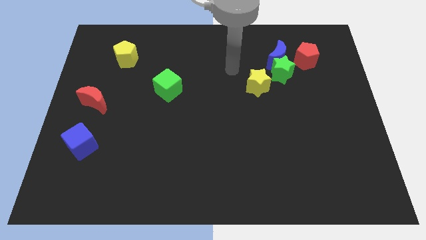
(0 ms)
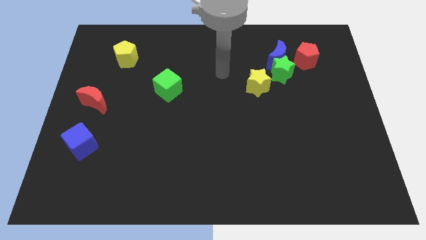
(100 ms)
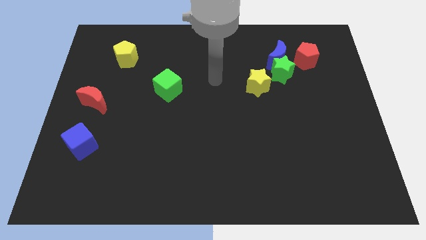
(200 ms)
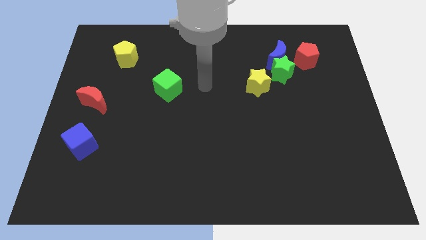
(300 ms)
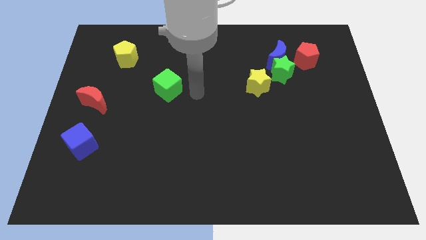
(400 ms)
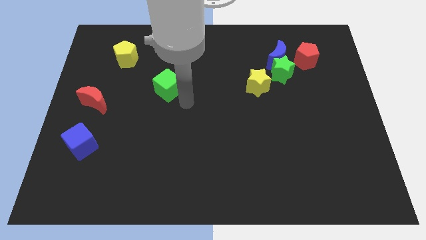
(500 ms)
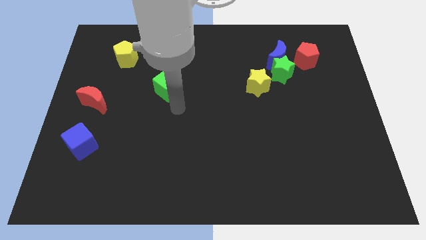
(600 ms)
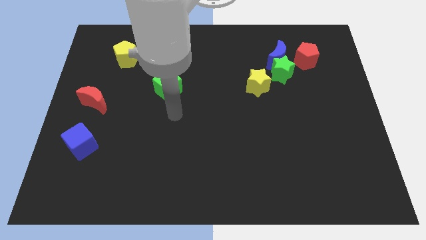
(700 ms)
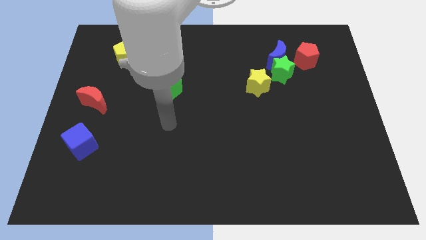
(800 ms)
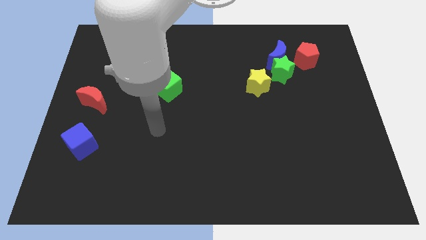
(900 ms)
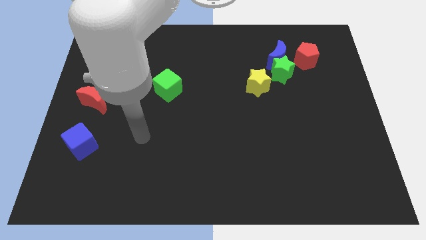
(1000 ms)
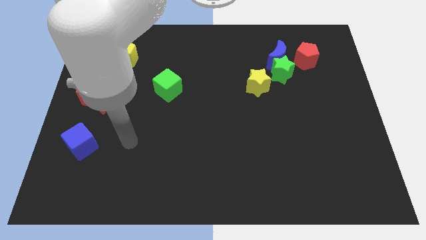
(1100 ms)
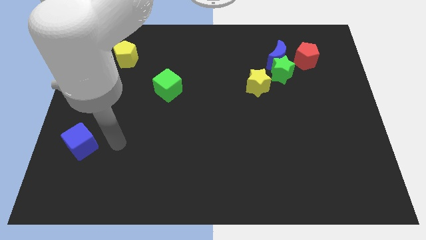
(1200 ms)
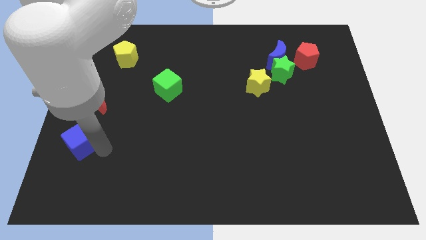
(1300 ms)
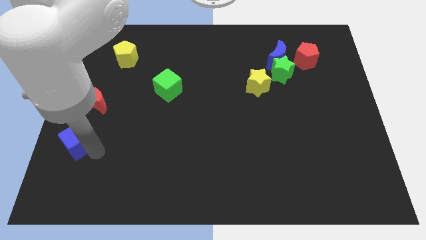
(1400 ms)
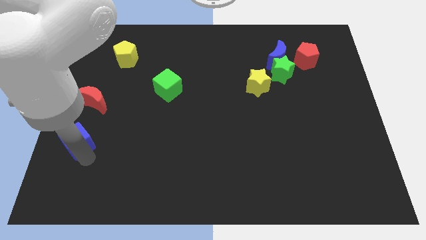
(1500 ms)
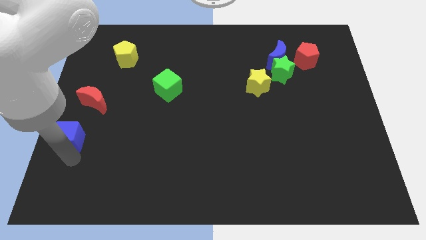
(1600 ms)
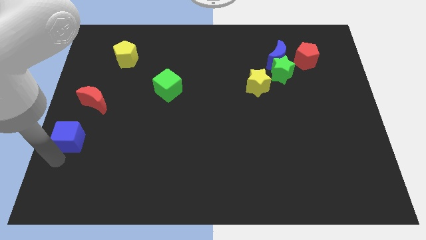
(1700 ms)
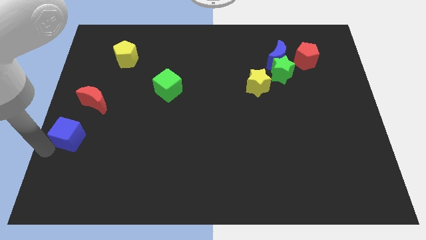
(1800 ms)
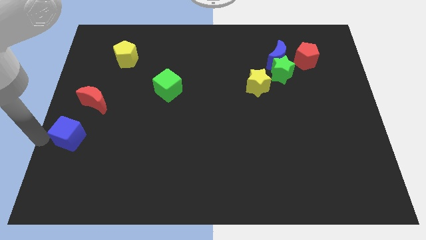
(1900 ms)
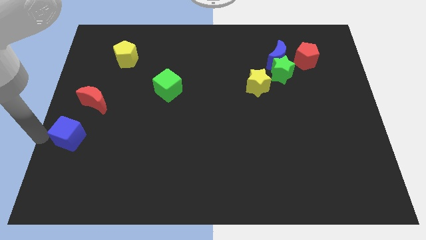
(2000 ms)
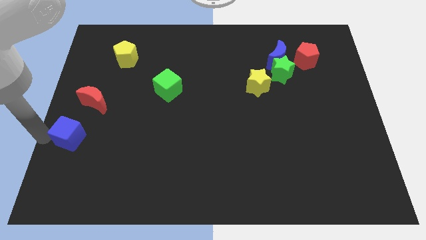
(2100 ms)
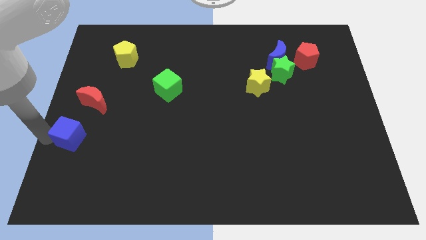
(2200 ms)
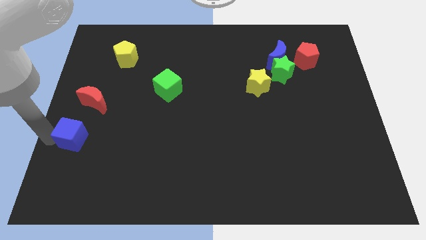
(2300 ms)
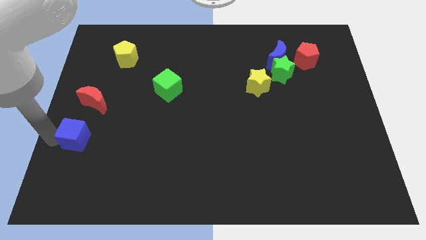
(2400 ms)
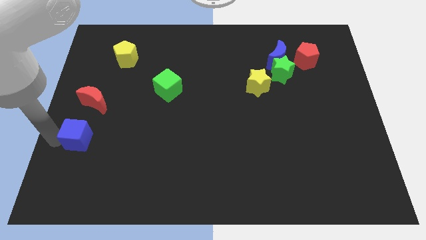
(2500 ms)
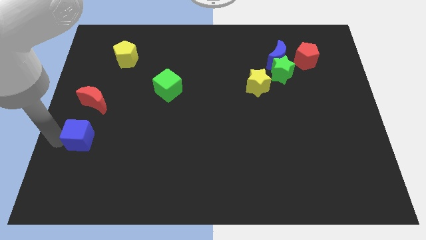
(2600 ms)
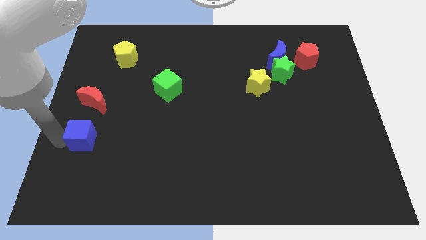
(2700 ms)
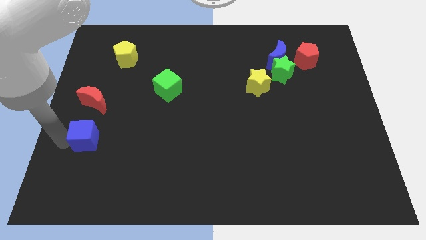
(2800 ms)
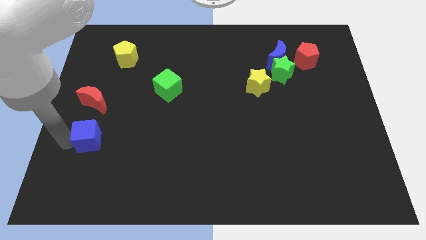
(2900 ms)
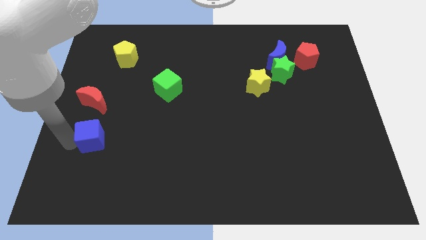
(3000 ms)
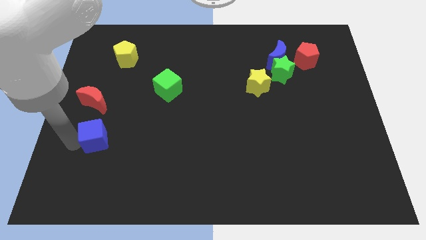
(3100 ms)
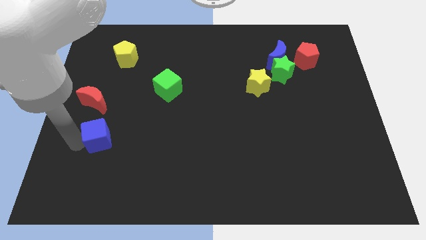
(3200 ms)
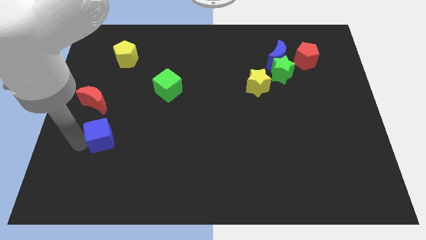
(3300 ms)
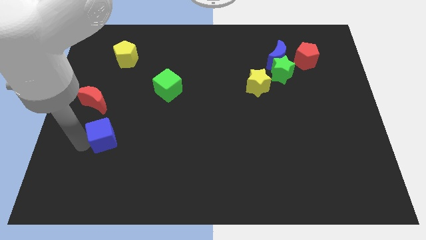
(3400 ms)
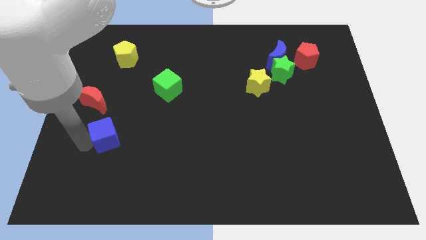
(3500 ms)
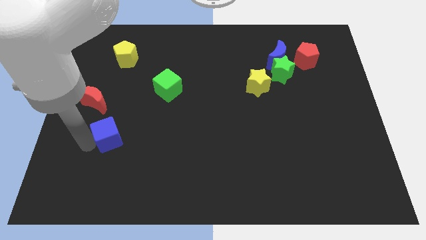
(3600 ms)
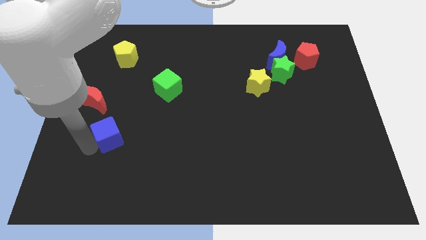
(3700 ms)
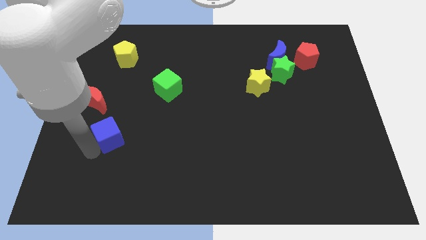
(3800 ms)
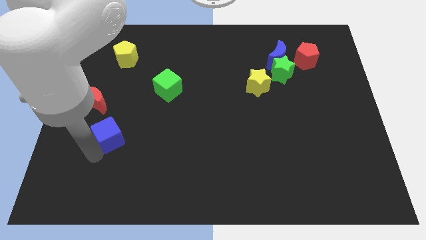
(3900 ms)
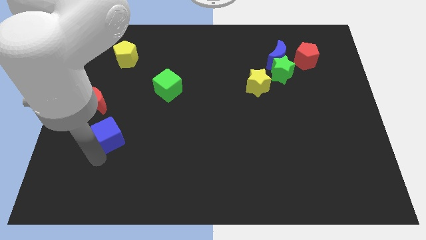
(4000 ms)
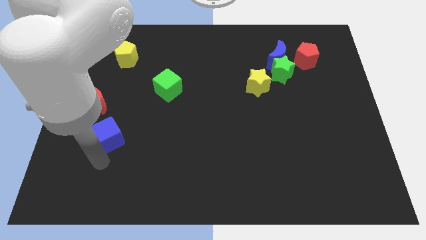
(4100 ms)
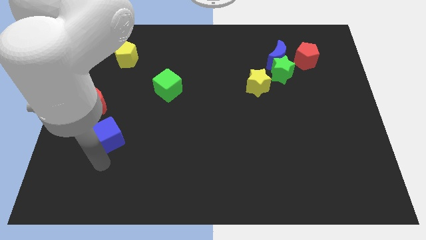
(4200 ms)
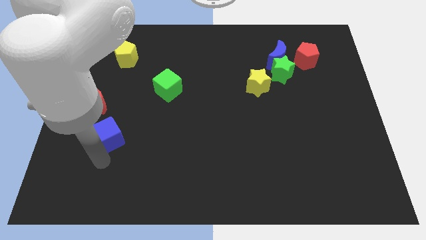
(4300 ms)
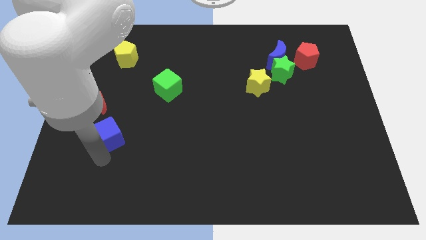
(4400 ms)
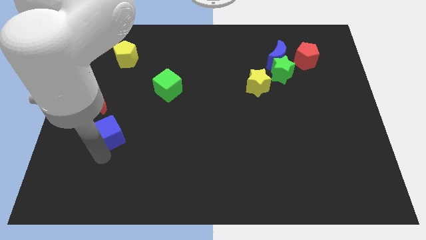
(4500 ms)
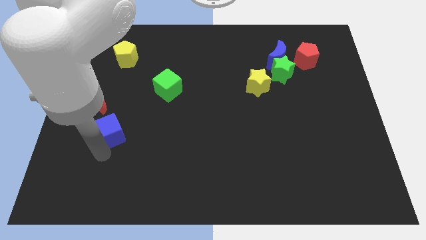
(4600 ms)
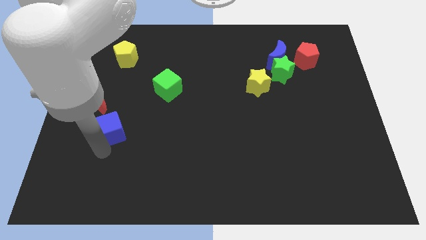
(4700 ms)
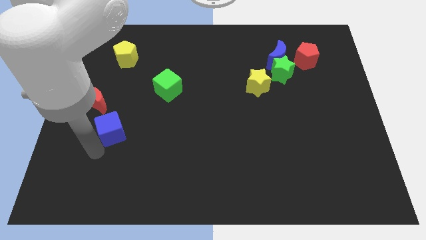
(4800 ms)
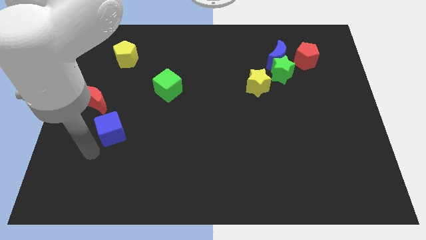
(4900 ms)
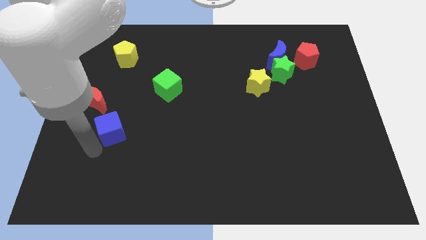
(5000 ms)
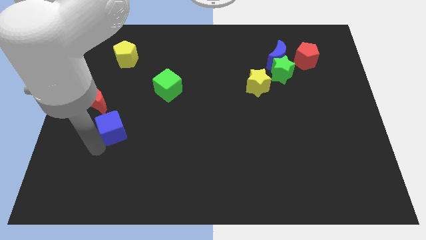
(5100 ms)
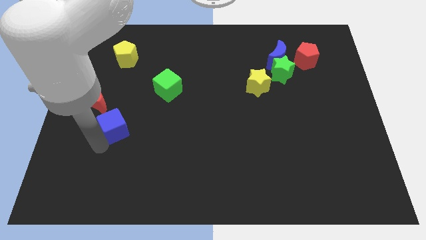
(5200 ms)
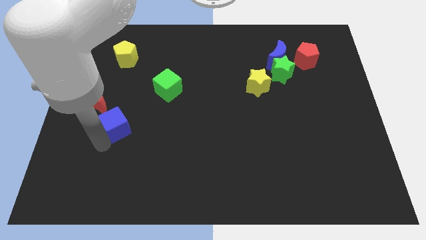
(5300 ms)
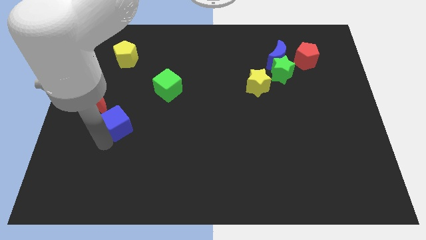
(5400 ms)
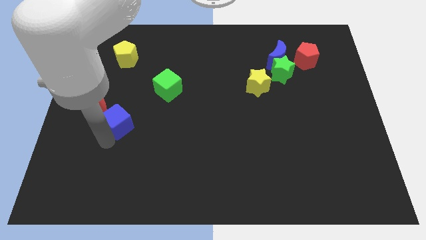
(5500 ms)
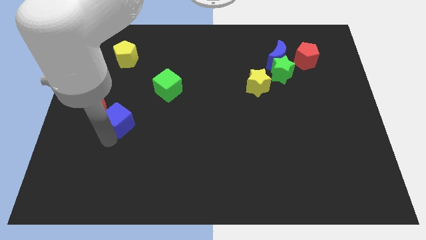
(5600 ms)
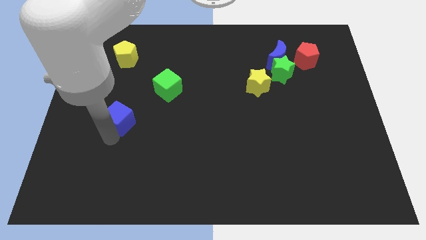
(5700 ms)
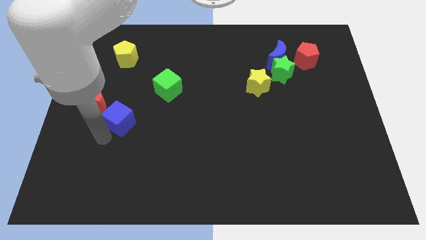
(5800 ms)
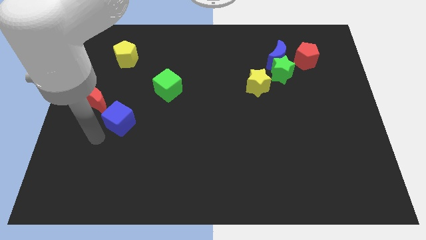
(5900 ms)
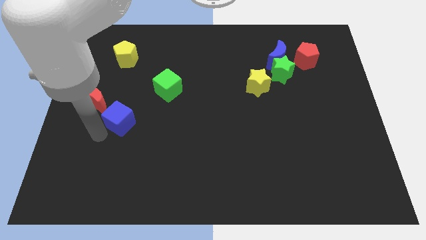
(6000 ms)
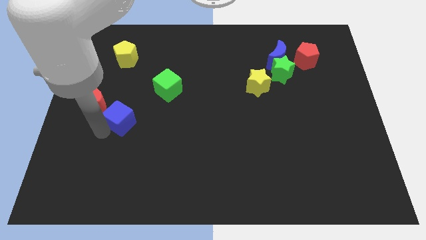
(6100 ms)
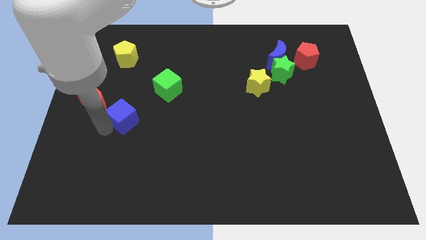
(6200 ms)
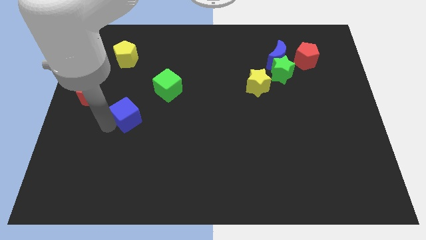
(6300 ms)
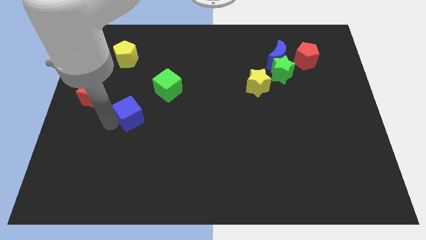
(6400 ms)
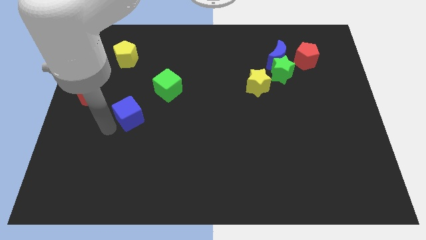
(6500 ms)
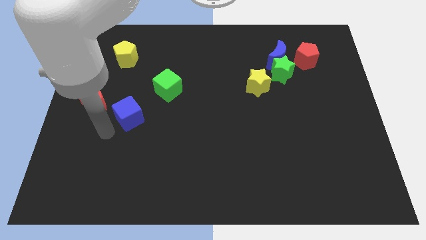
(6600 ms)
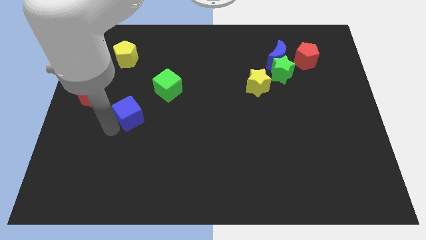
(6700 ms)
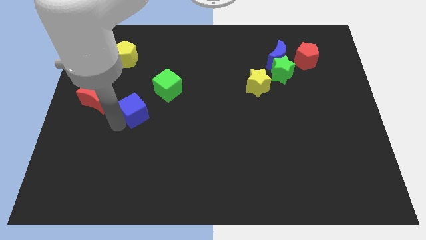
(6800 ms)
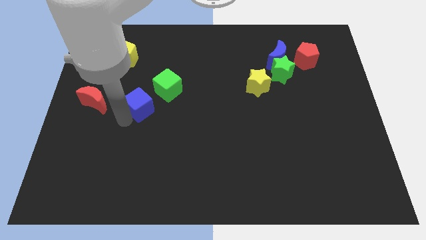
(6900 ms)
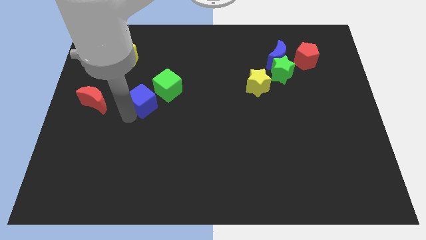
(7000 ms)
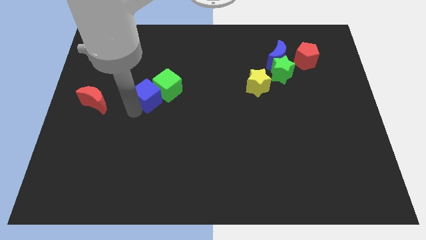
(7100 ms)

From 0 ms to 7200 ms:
push the blue cube towards the green cube

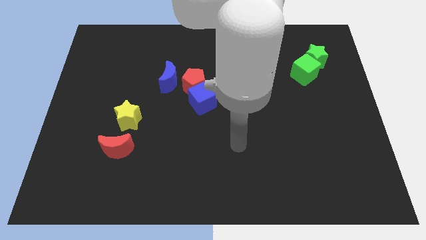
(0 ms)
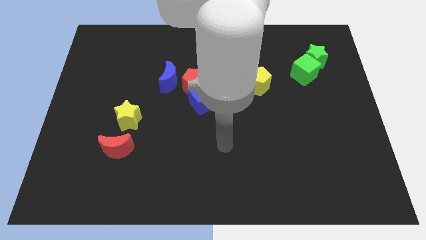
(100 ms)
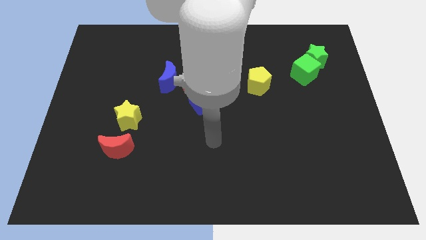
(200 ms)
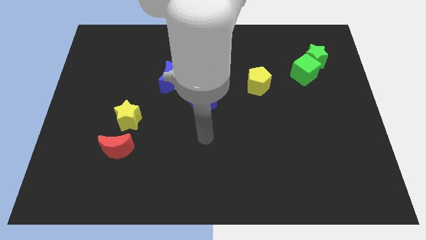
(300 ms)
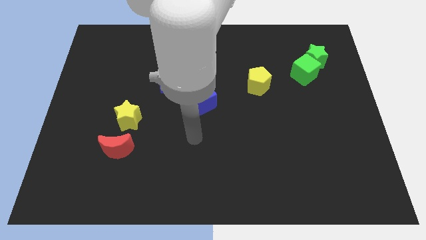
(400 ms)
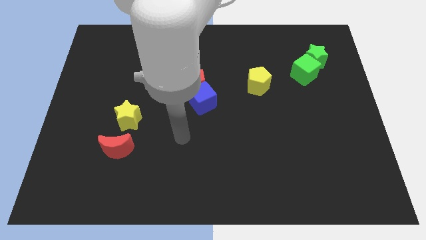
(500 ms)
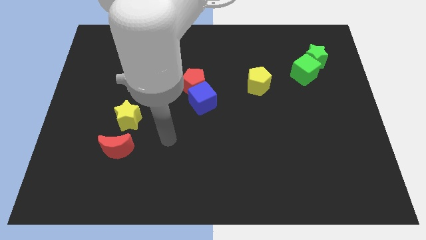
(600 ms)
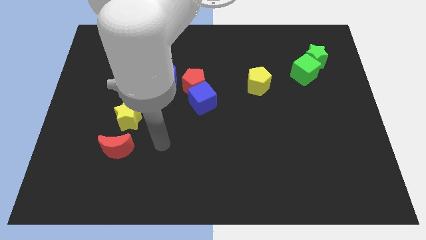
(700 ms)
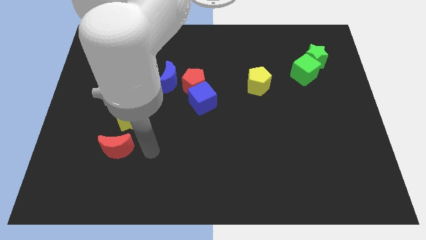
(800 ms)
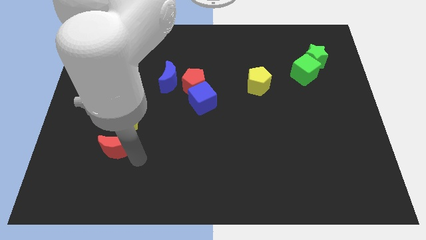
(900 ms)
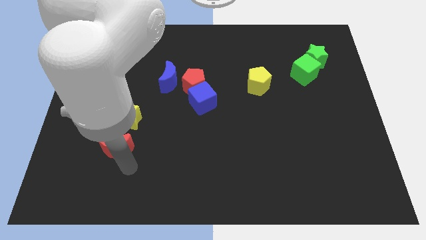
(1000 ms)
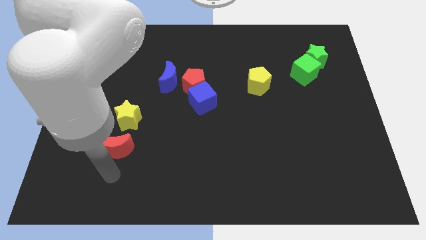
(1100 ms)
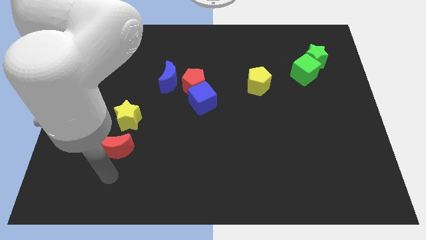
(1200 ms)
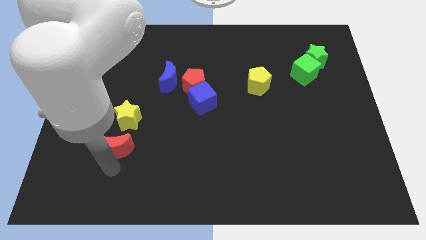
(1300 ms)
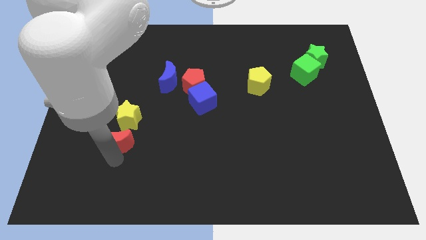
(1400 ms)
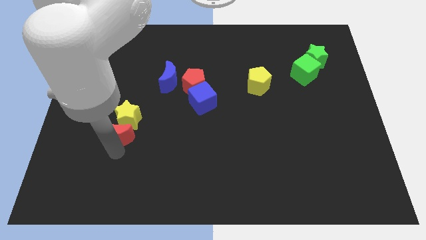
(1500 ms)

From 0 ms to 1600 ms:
put the red moon close to the yellow star
